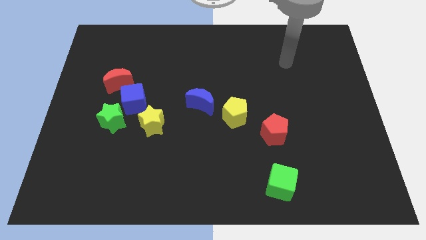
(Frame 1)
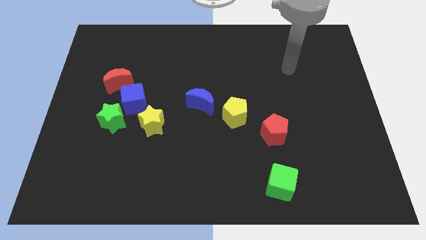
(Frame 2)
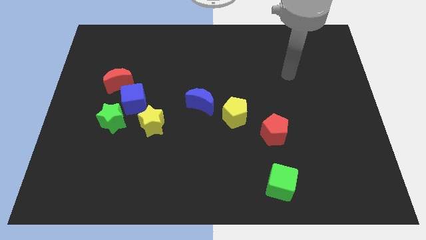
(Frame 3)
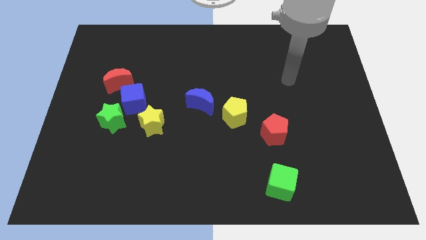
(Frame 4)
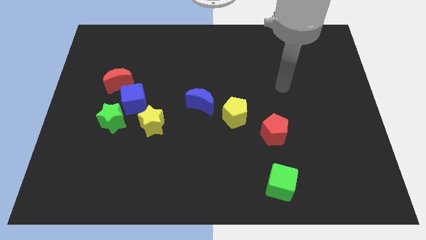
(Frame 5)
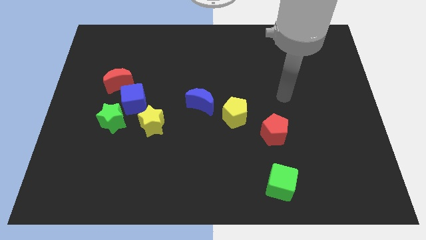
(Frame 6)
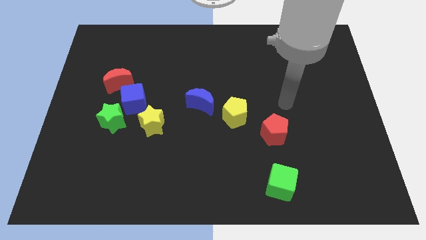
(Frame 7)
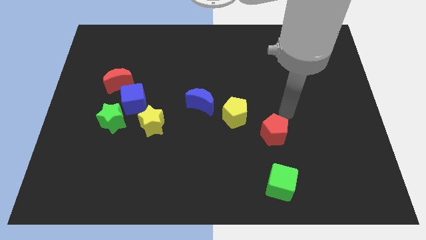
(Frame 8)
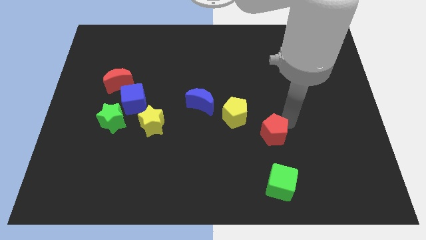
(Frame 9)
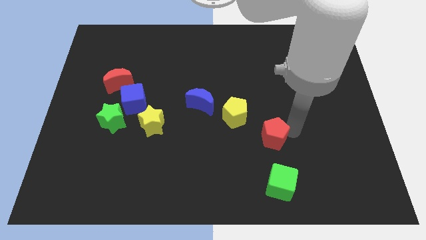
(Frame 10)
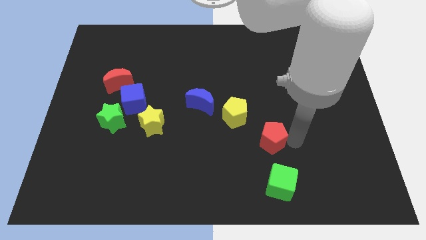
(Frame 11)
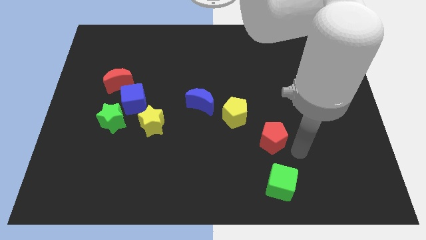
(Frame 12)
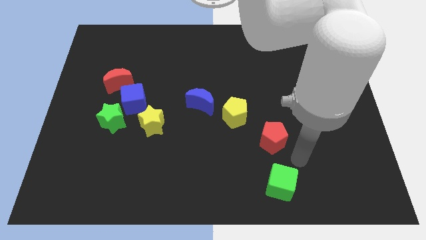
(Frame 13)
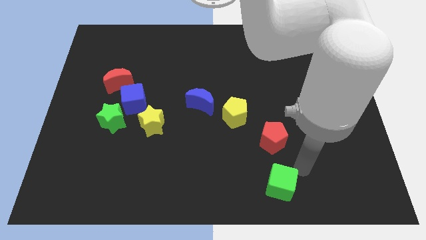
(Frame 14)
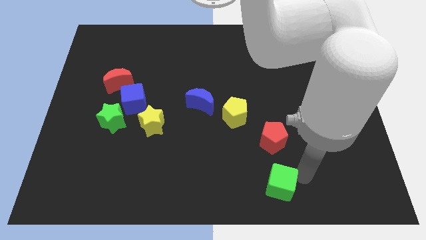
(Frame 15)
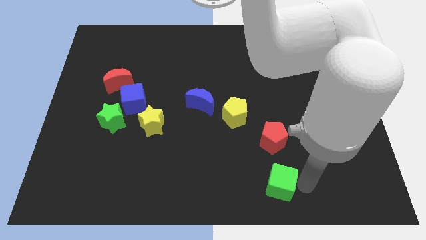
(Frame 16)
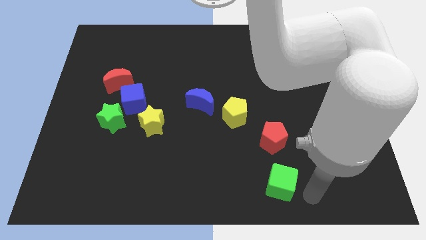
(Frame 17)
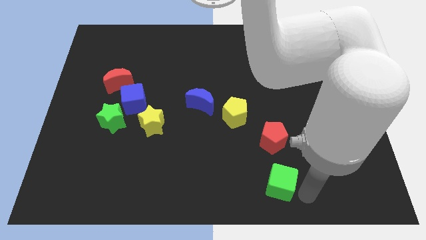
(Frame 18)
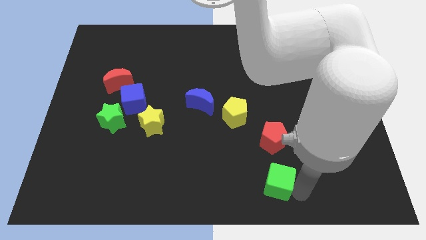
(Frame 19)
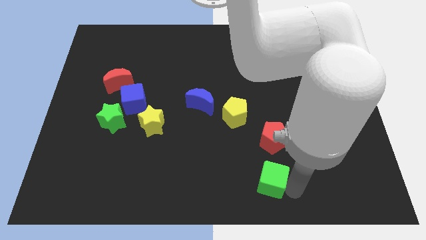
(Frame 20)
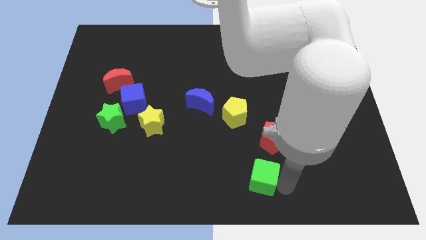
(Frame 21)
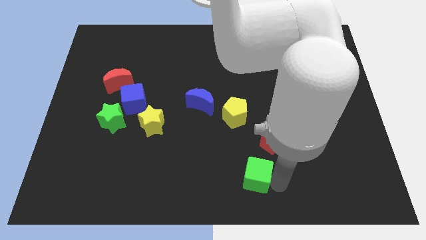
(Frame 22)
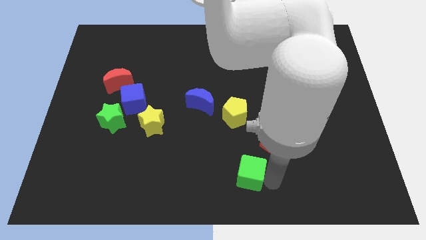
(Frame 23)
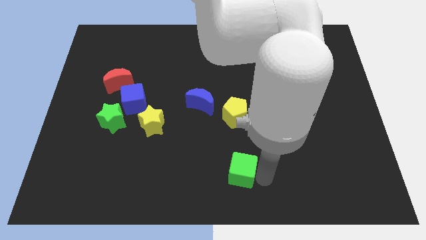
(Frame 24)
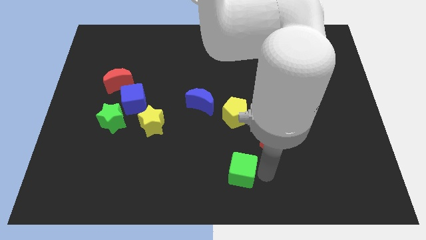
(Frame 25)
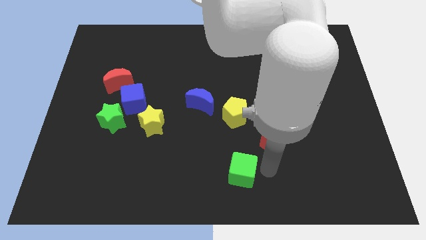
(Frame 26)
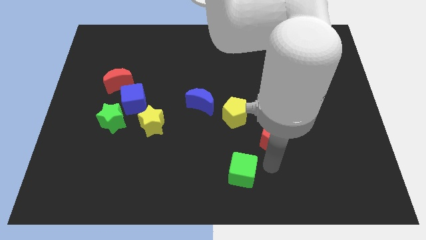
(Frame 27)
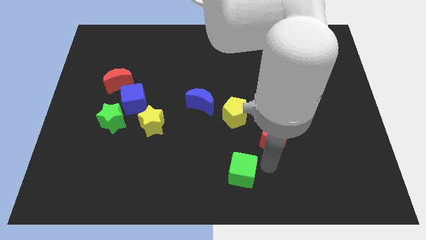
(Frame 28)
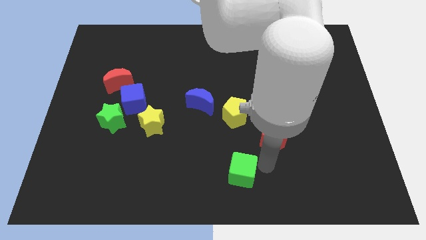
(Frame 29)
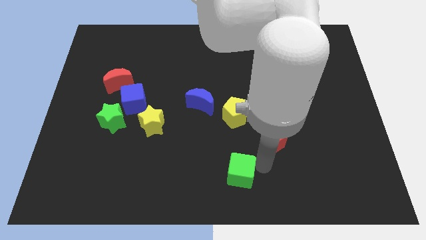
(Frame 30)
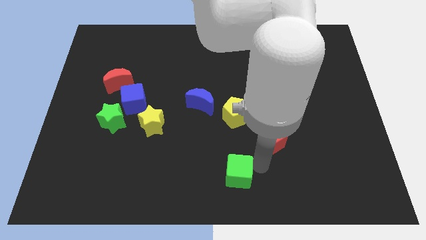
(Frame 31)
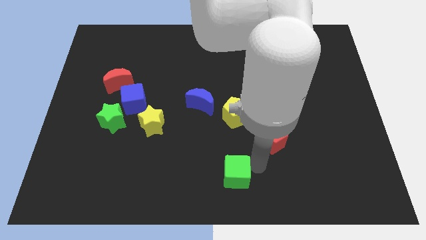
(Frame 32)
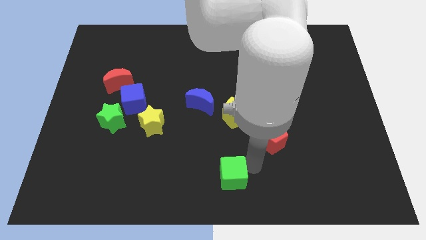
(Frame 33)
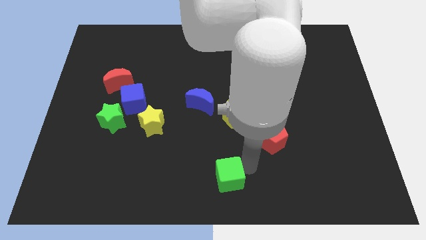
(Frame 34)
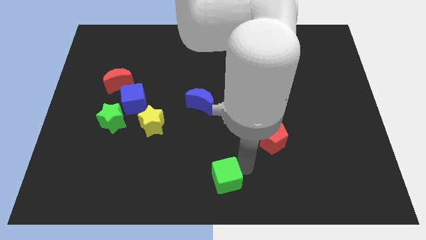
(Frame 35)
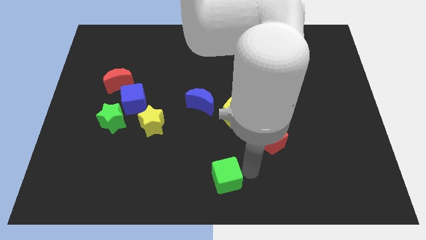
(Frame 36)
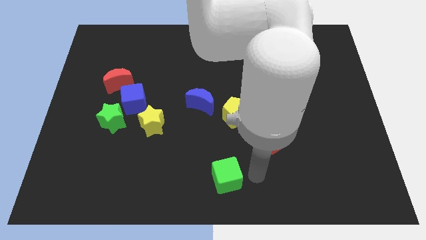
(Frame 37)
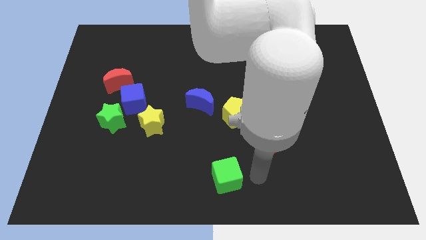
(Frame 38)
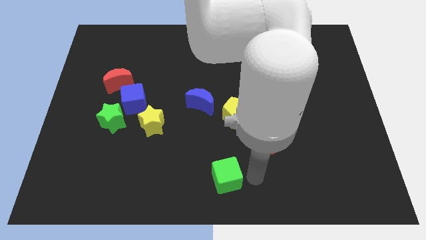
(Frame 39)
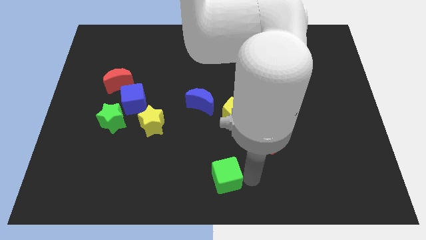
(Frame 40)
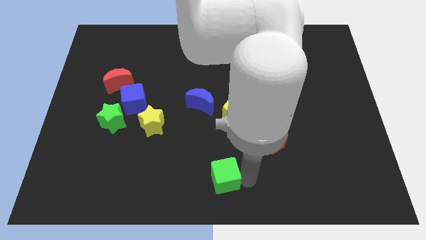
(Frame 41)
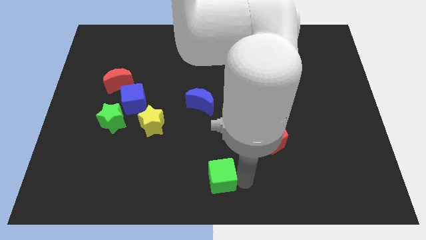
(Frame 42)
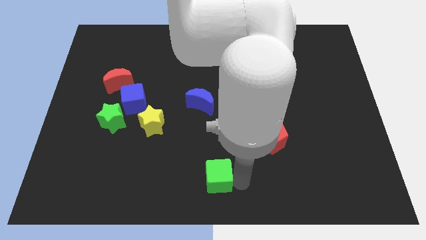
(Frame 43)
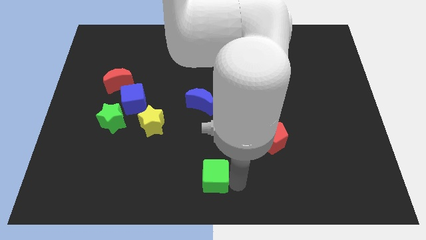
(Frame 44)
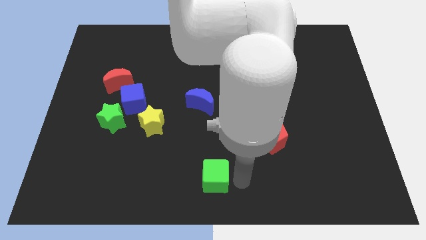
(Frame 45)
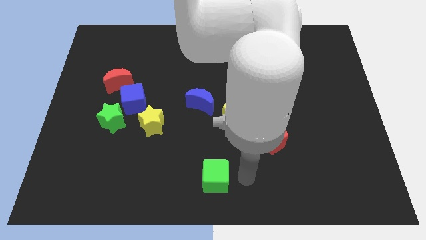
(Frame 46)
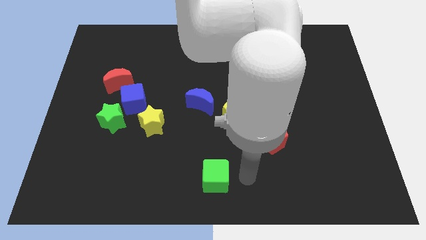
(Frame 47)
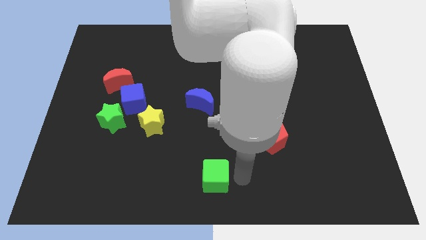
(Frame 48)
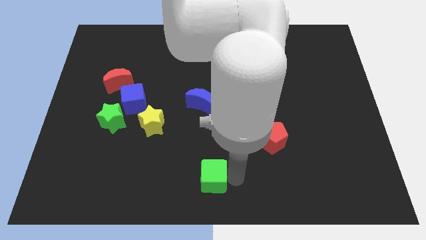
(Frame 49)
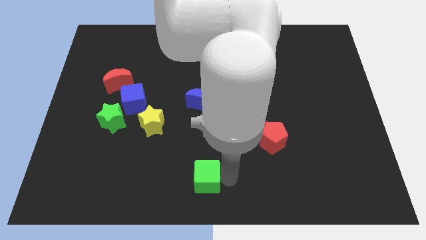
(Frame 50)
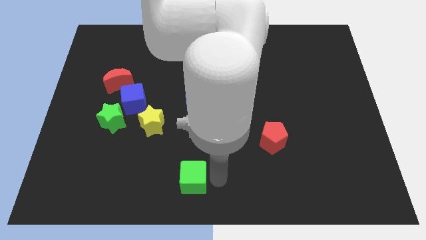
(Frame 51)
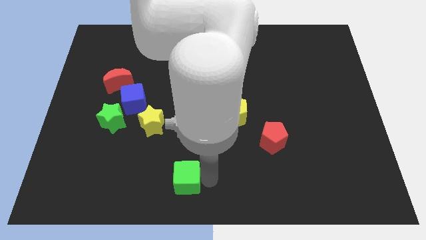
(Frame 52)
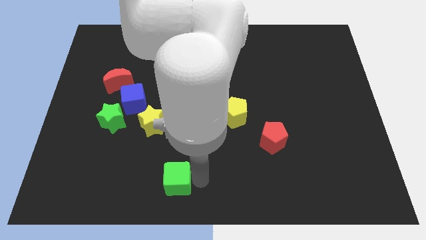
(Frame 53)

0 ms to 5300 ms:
push the green cube to the left

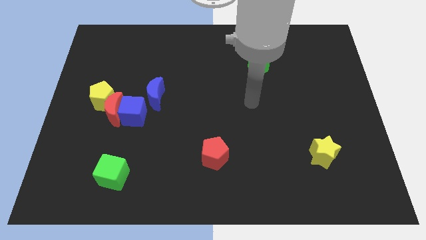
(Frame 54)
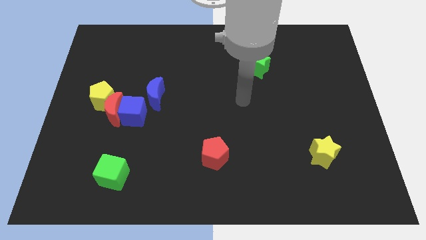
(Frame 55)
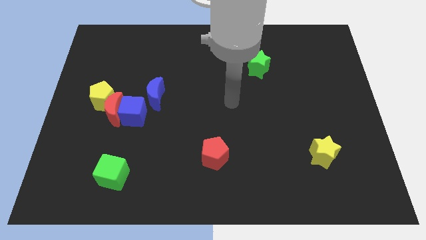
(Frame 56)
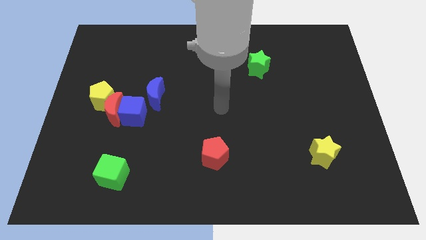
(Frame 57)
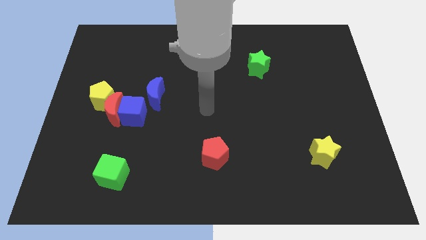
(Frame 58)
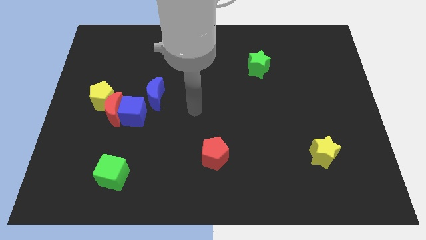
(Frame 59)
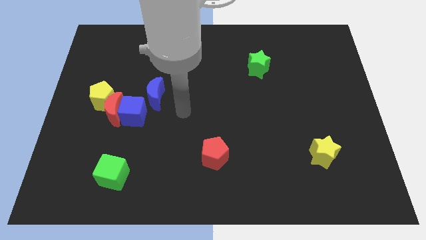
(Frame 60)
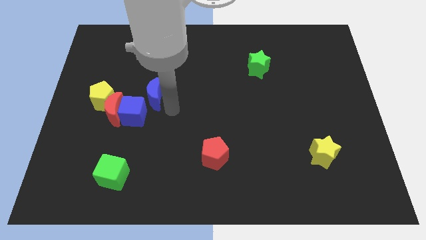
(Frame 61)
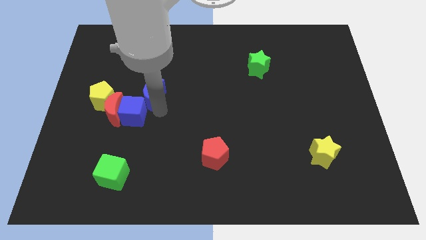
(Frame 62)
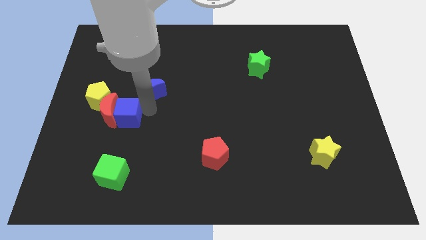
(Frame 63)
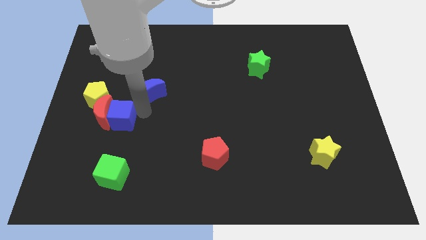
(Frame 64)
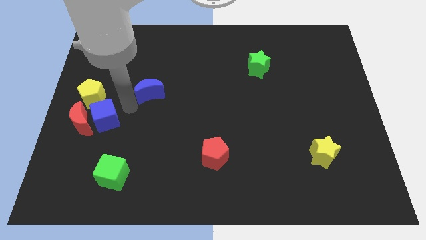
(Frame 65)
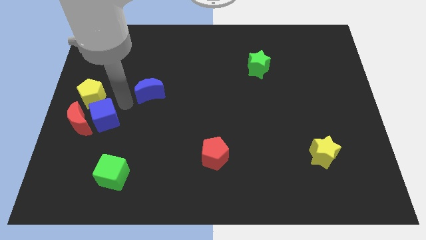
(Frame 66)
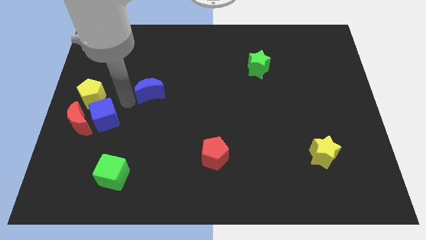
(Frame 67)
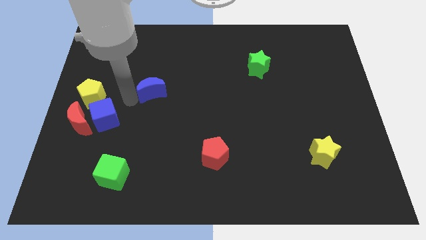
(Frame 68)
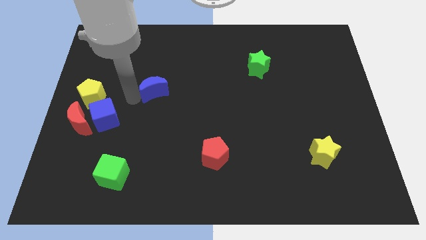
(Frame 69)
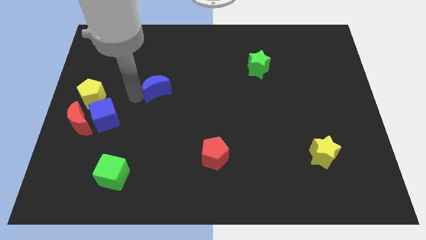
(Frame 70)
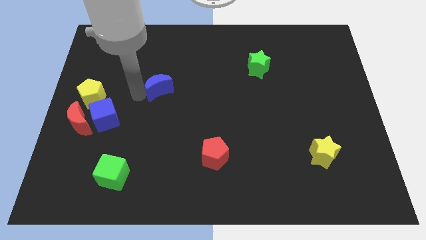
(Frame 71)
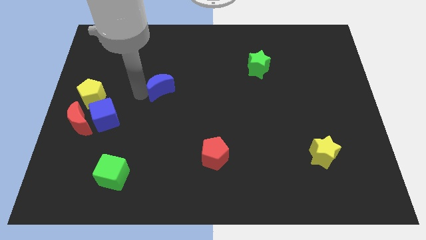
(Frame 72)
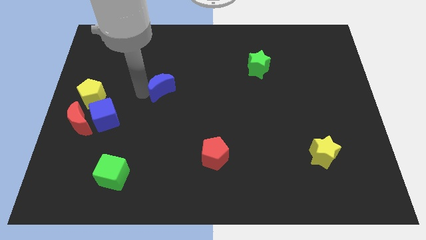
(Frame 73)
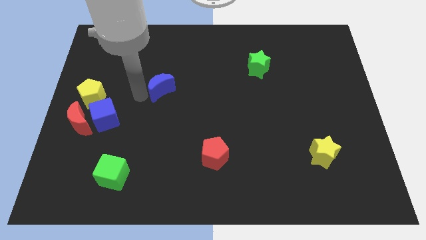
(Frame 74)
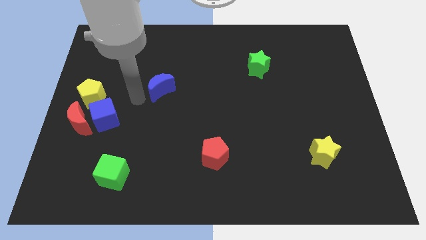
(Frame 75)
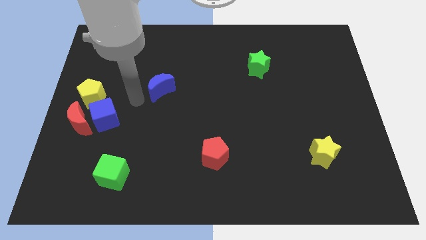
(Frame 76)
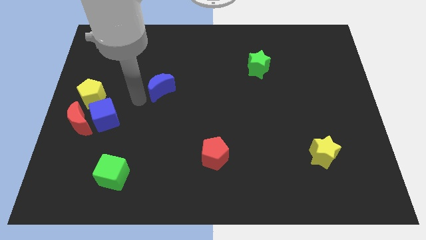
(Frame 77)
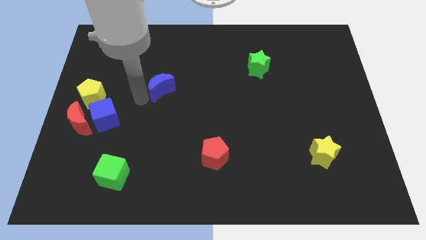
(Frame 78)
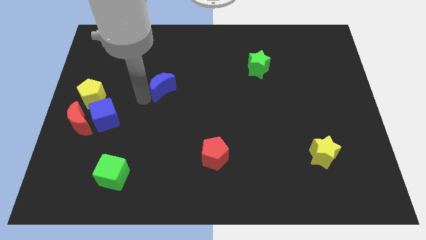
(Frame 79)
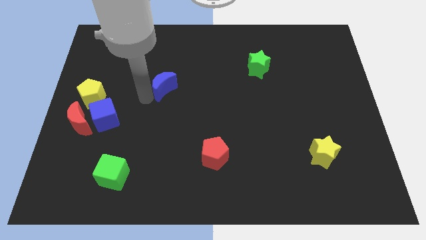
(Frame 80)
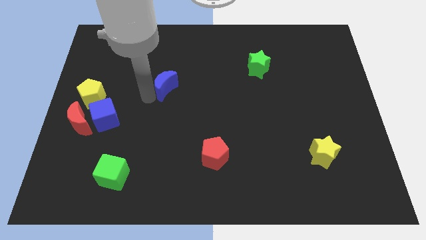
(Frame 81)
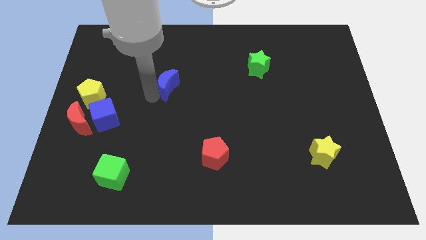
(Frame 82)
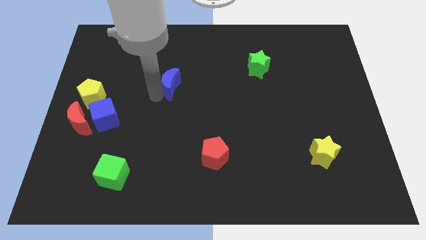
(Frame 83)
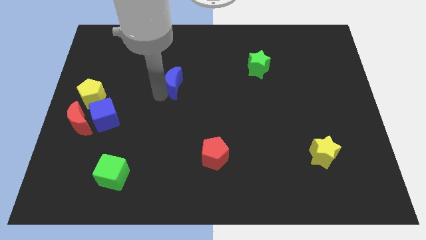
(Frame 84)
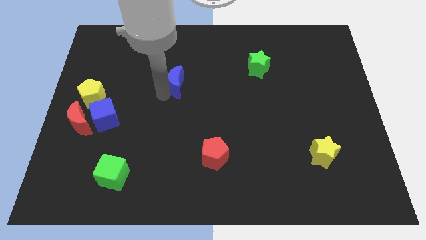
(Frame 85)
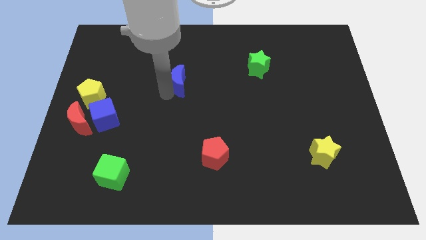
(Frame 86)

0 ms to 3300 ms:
slide the blue moon upwards and then right a little bit
